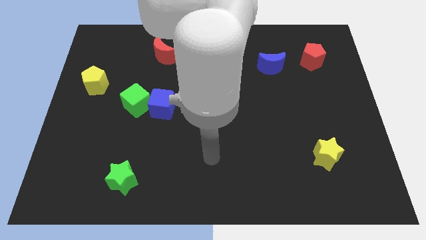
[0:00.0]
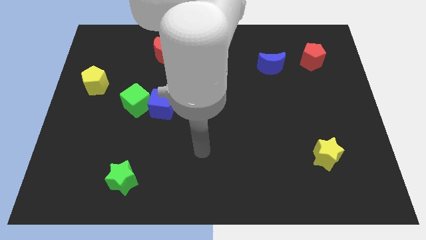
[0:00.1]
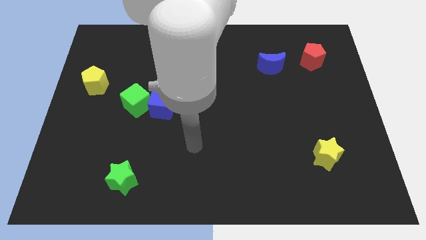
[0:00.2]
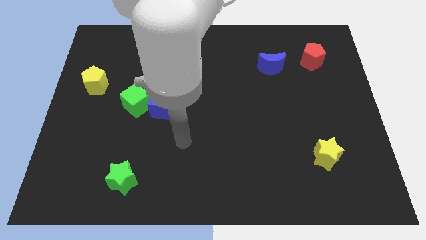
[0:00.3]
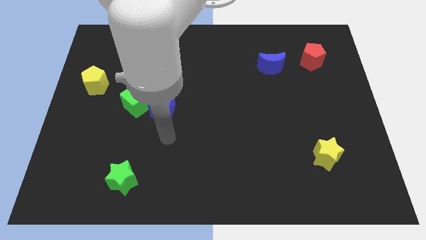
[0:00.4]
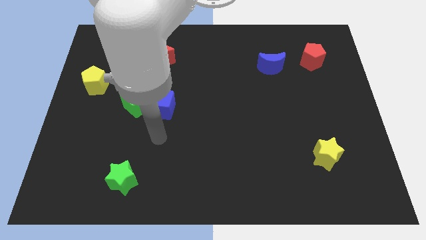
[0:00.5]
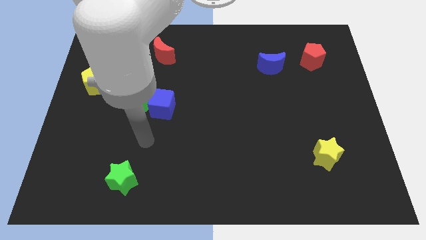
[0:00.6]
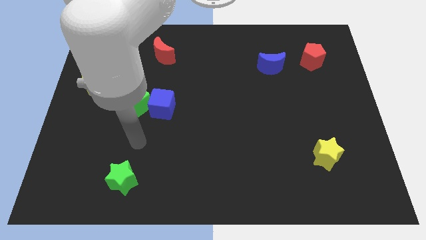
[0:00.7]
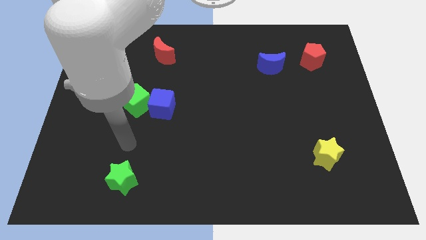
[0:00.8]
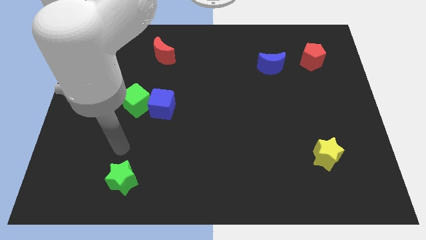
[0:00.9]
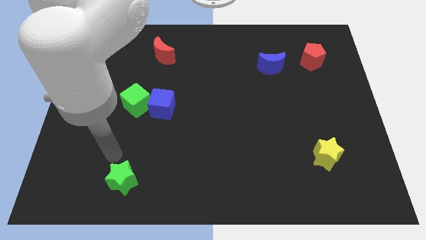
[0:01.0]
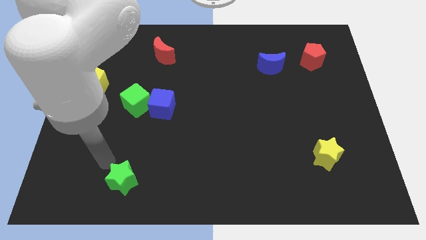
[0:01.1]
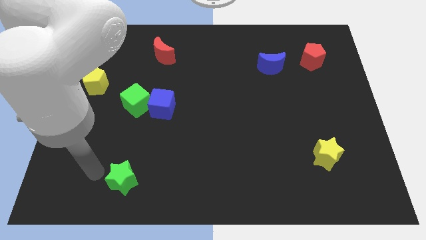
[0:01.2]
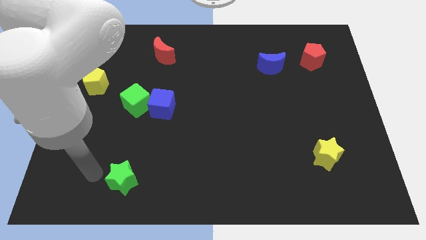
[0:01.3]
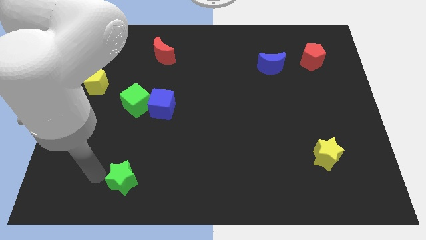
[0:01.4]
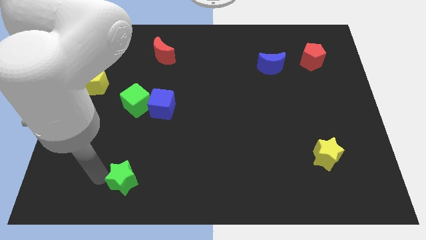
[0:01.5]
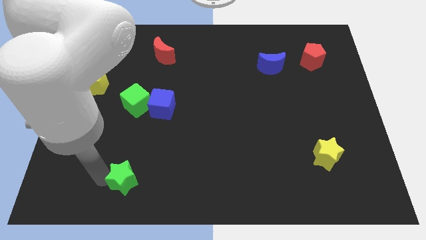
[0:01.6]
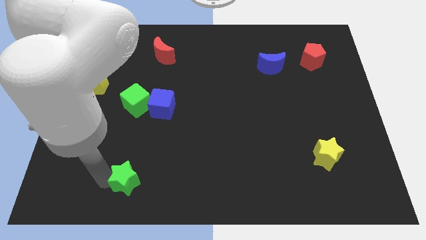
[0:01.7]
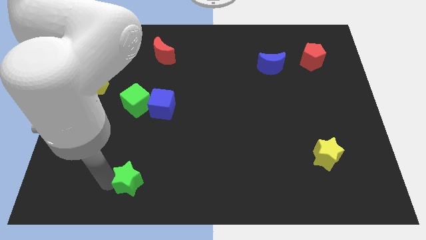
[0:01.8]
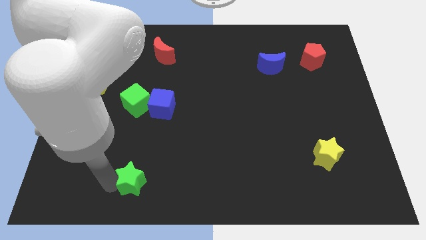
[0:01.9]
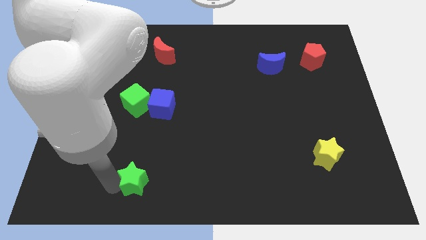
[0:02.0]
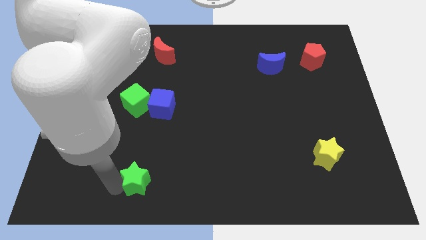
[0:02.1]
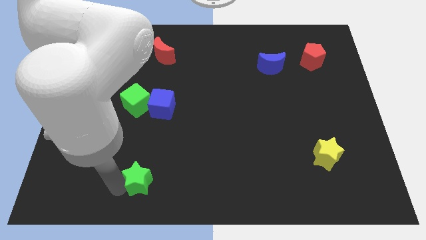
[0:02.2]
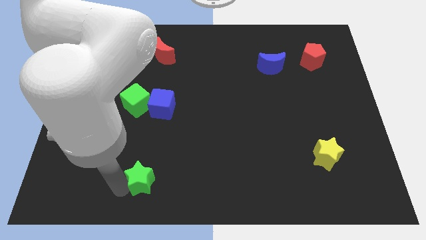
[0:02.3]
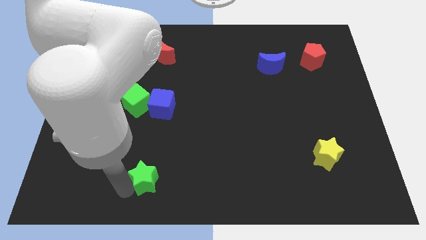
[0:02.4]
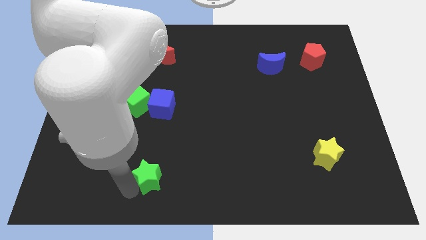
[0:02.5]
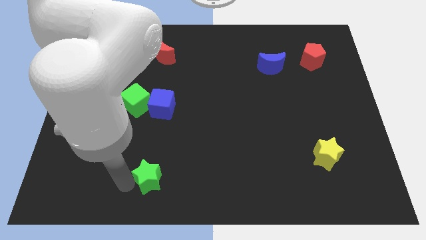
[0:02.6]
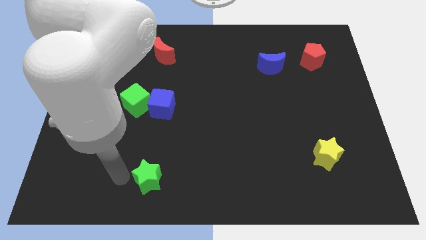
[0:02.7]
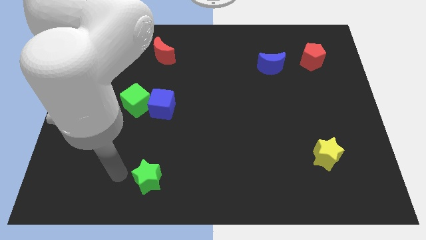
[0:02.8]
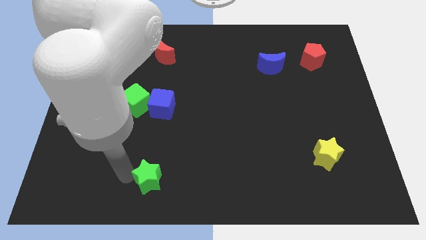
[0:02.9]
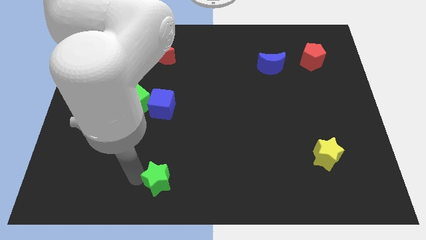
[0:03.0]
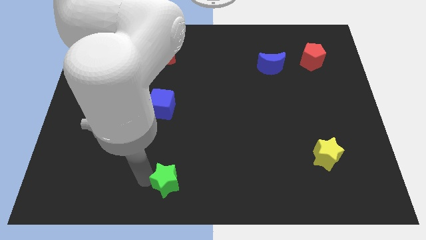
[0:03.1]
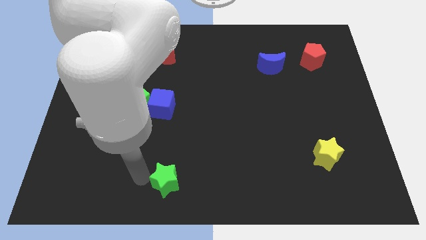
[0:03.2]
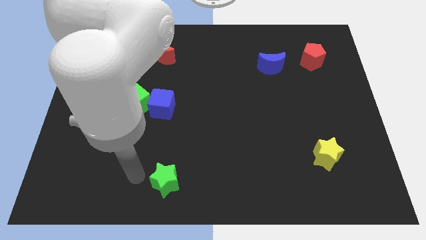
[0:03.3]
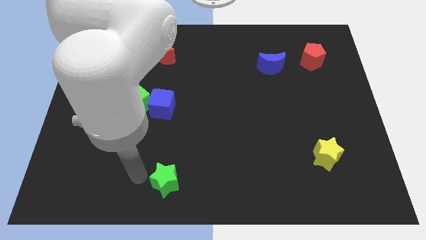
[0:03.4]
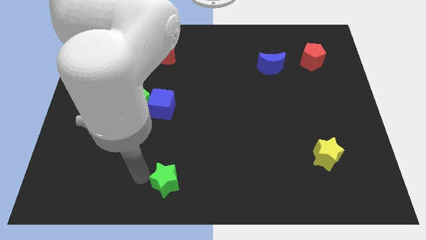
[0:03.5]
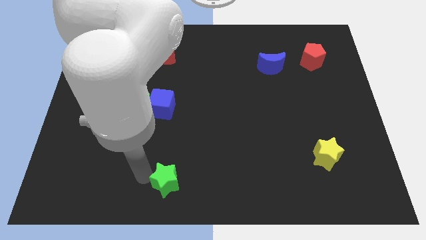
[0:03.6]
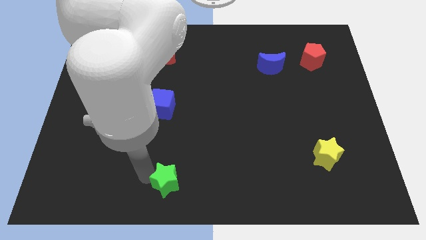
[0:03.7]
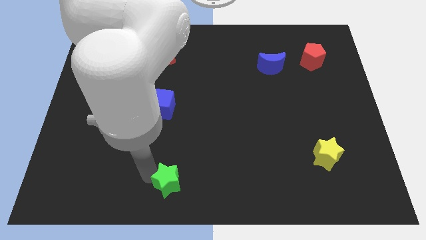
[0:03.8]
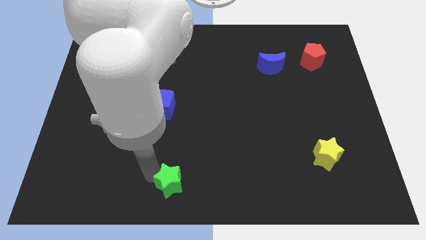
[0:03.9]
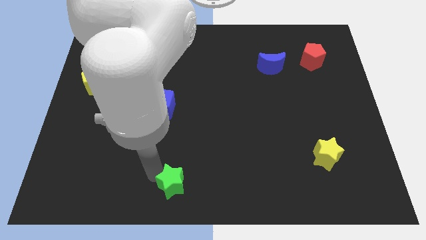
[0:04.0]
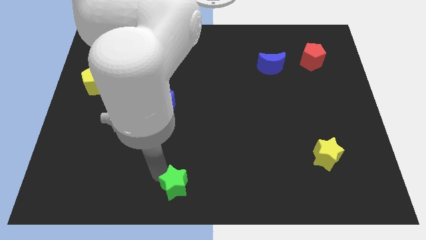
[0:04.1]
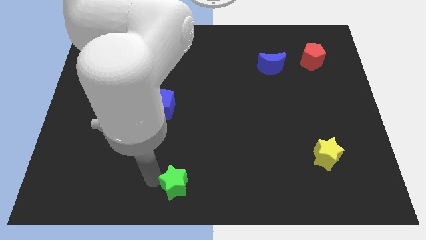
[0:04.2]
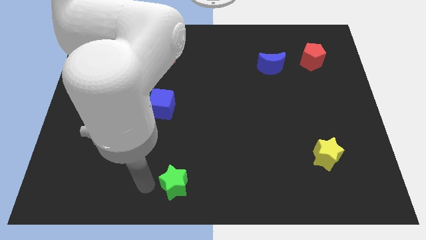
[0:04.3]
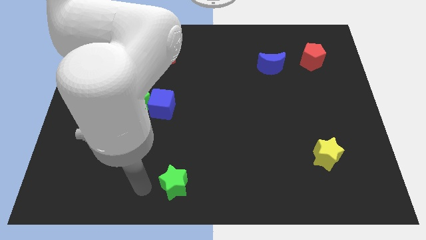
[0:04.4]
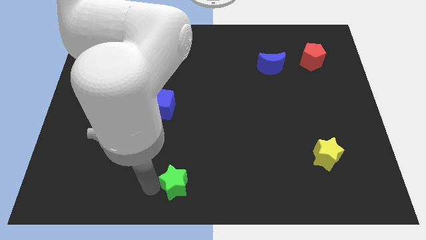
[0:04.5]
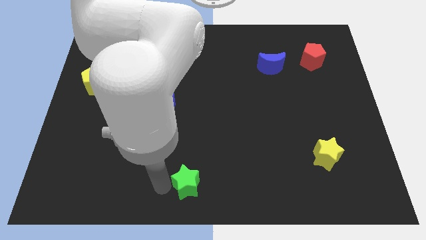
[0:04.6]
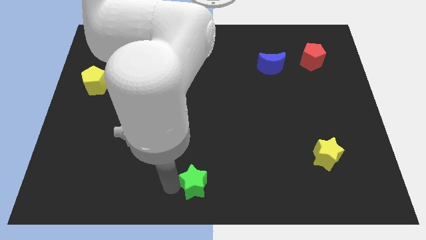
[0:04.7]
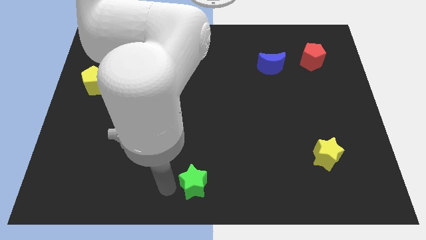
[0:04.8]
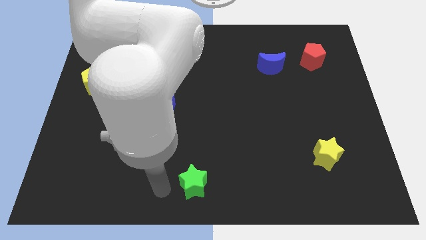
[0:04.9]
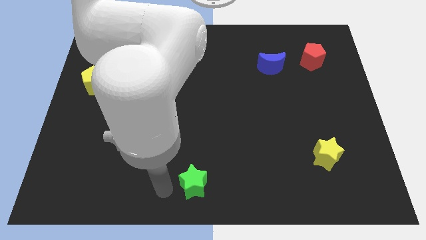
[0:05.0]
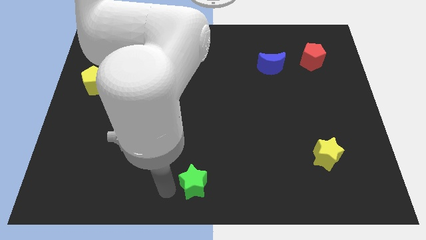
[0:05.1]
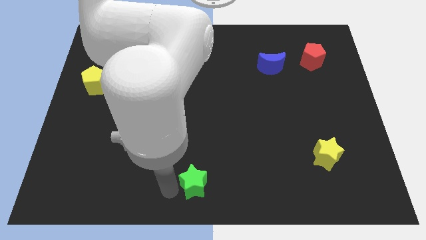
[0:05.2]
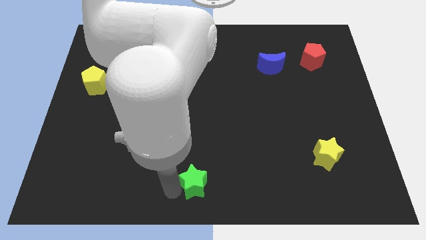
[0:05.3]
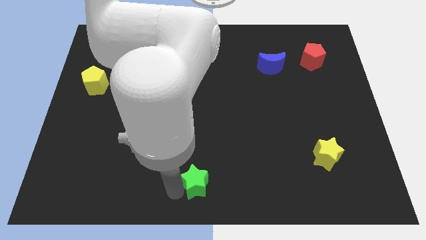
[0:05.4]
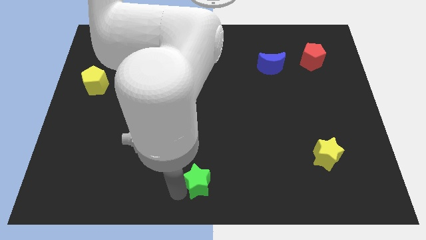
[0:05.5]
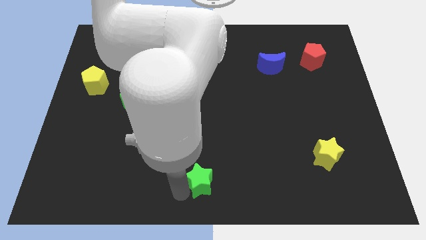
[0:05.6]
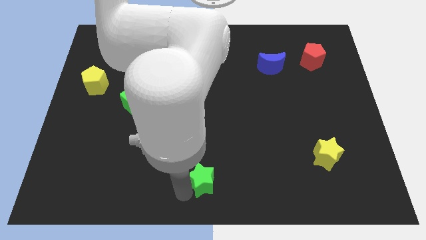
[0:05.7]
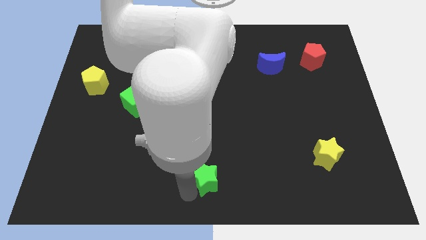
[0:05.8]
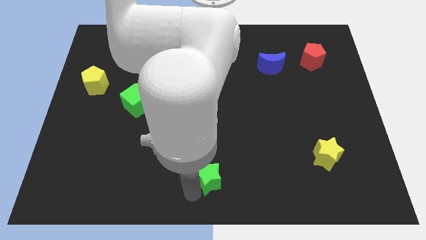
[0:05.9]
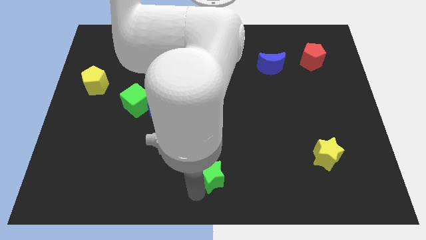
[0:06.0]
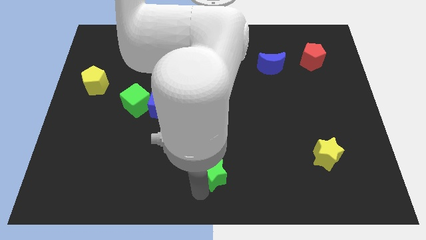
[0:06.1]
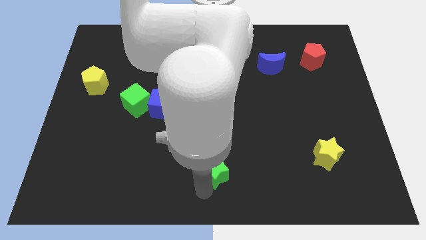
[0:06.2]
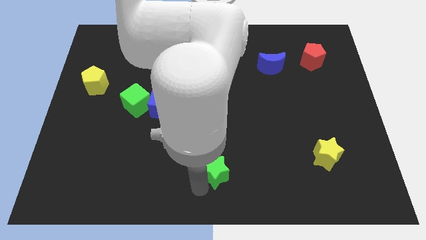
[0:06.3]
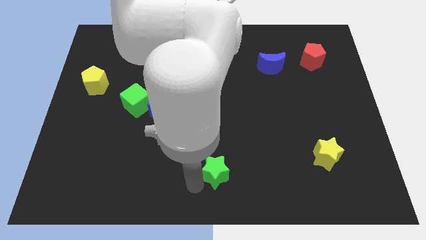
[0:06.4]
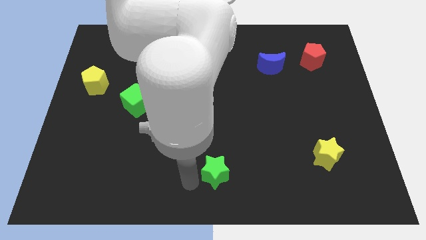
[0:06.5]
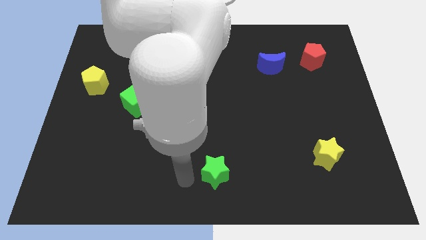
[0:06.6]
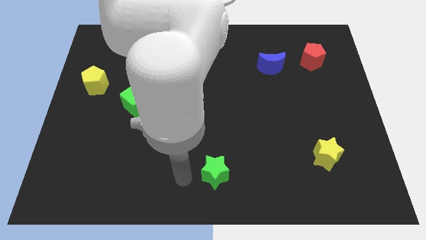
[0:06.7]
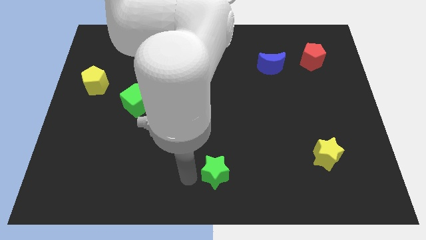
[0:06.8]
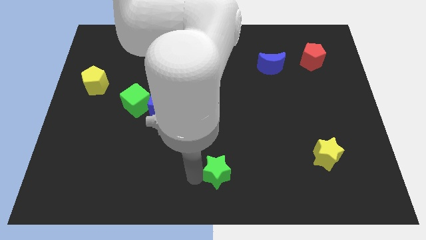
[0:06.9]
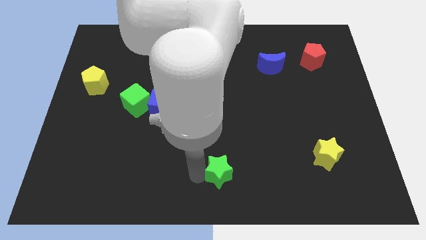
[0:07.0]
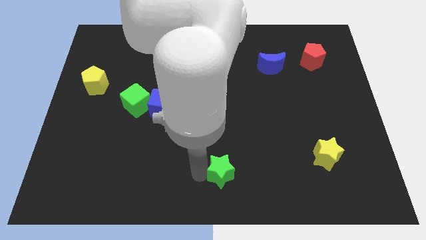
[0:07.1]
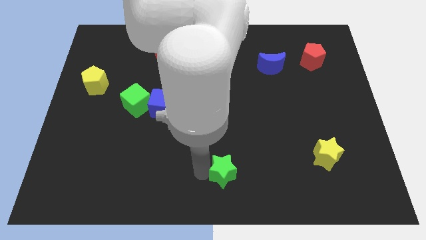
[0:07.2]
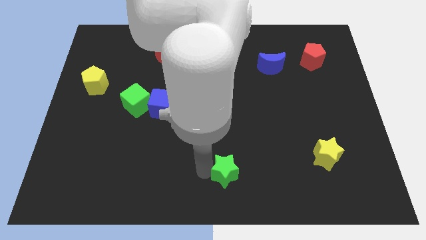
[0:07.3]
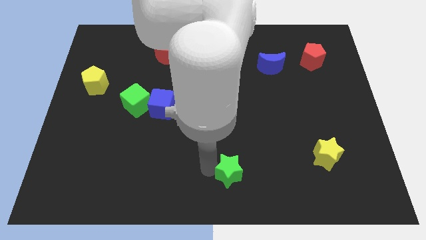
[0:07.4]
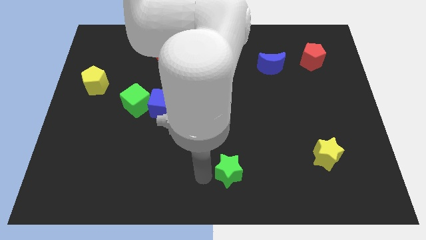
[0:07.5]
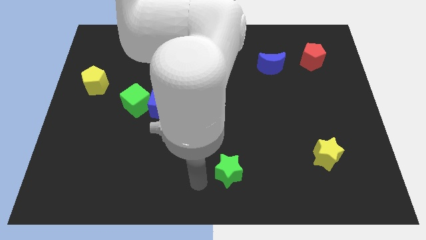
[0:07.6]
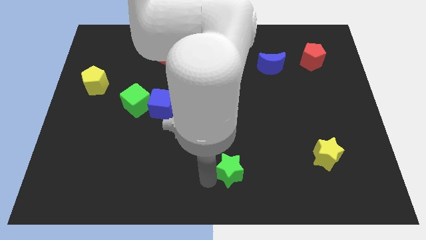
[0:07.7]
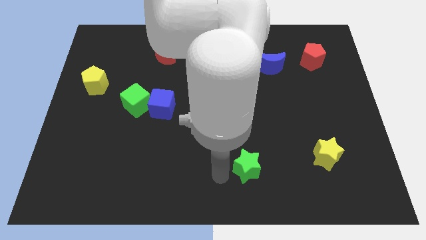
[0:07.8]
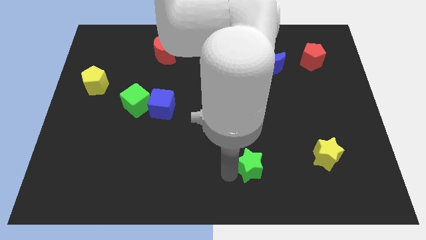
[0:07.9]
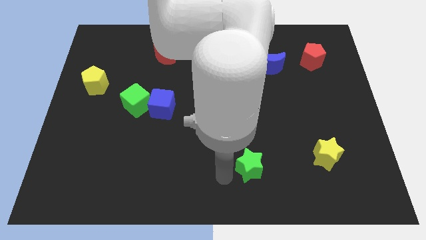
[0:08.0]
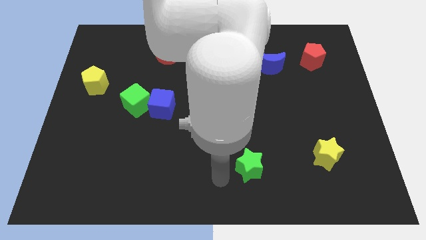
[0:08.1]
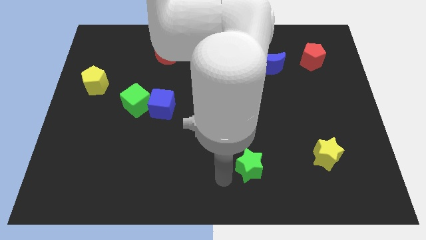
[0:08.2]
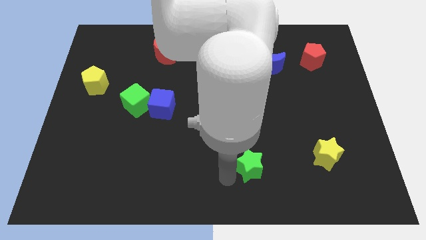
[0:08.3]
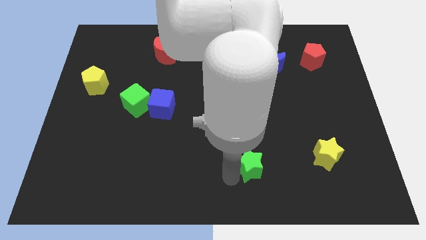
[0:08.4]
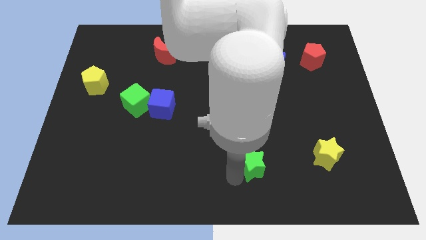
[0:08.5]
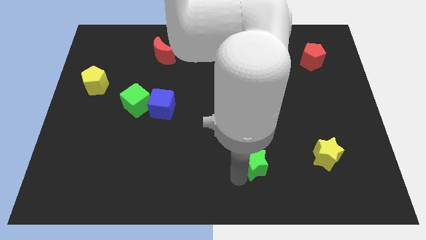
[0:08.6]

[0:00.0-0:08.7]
push the green star left of the yellow star
